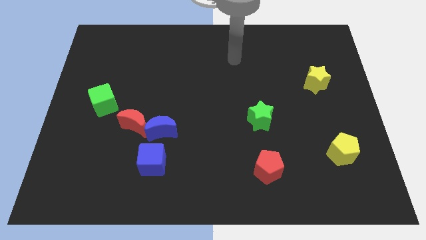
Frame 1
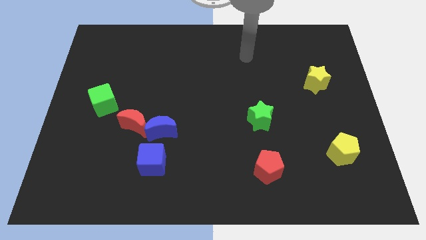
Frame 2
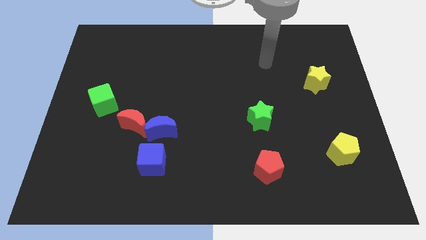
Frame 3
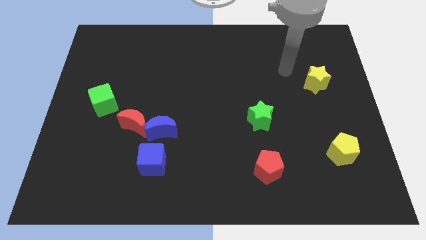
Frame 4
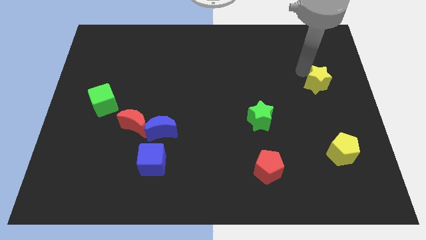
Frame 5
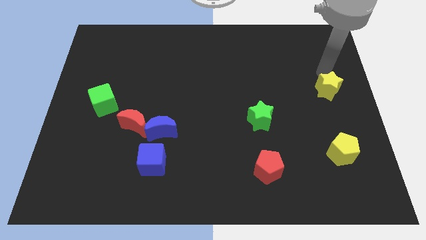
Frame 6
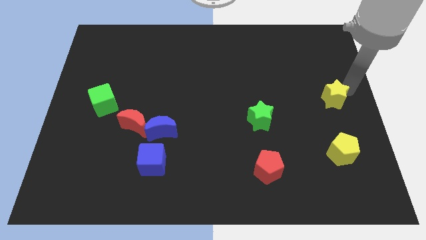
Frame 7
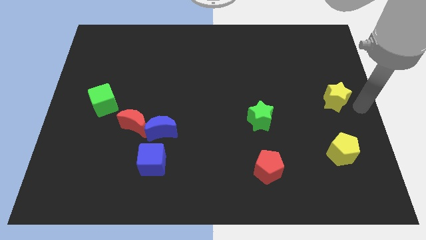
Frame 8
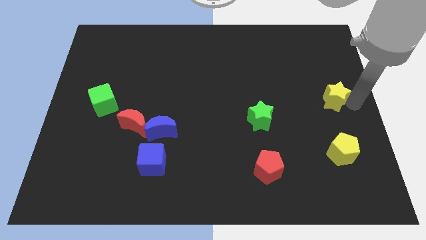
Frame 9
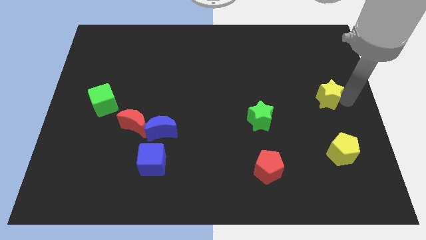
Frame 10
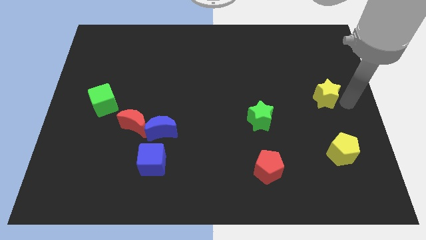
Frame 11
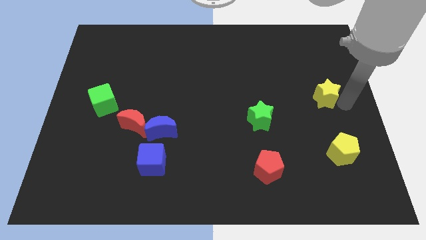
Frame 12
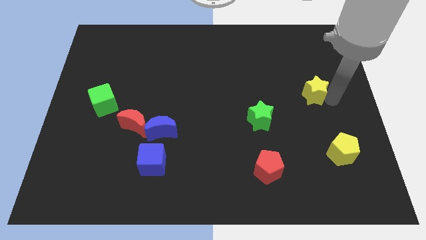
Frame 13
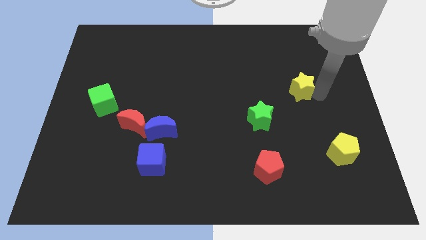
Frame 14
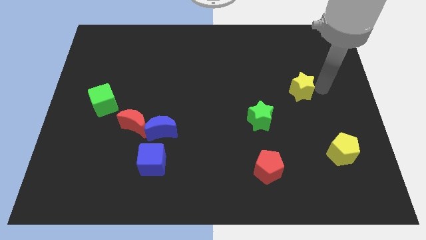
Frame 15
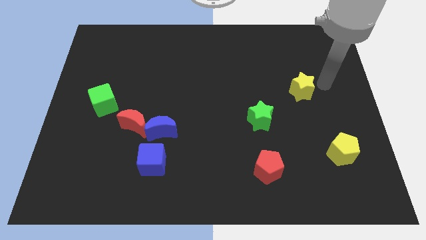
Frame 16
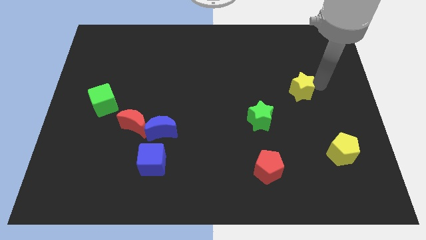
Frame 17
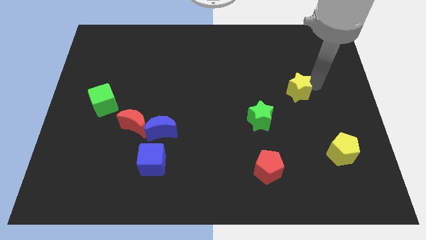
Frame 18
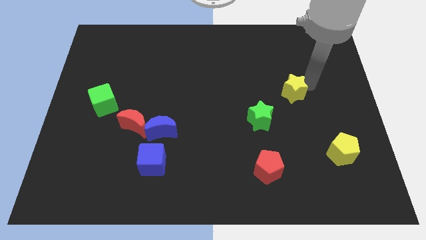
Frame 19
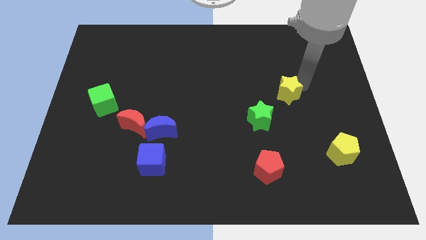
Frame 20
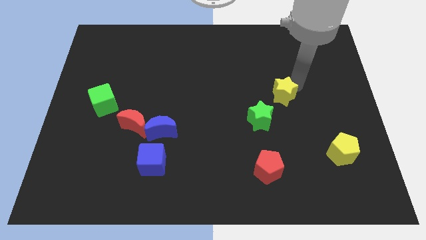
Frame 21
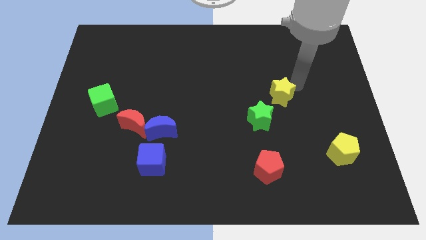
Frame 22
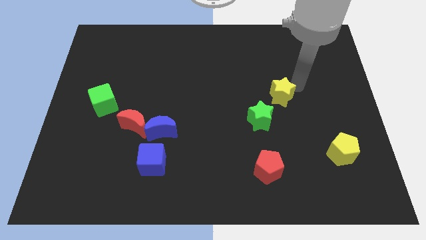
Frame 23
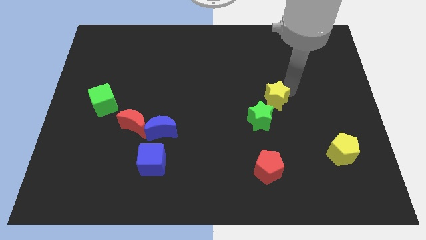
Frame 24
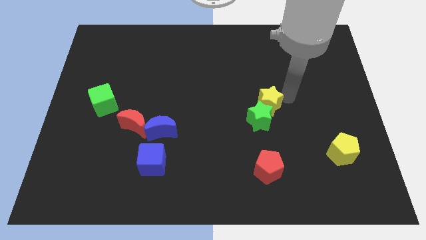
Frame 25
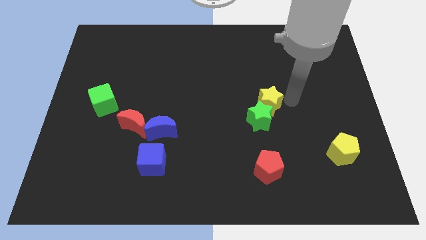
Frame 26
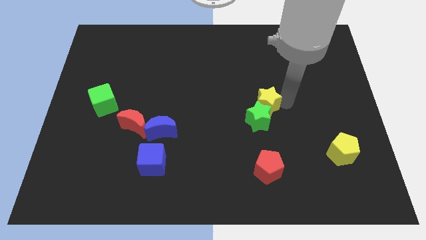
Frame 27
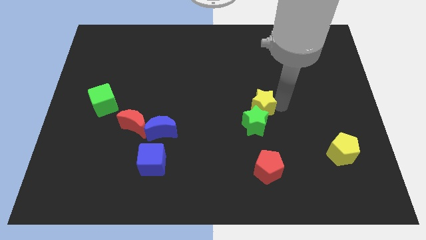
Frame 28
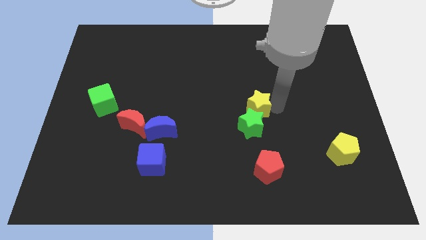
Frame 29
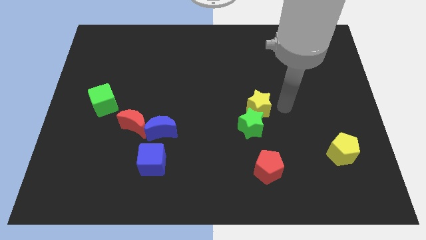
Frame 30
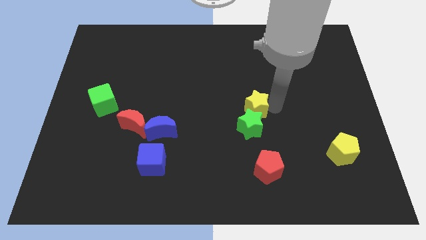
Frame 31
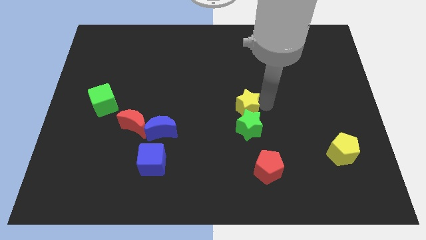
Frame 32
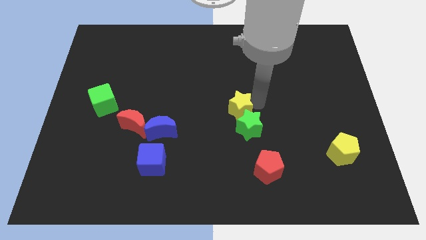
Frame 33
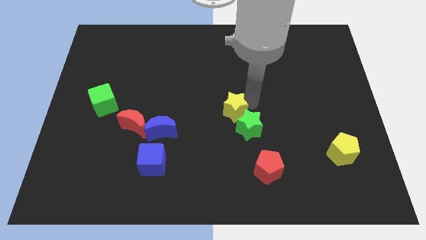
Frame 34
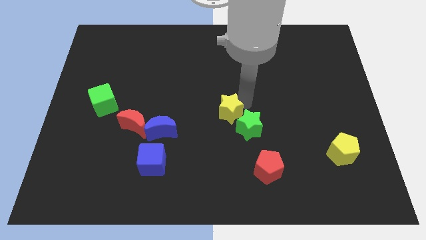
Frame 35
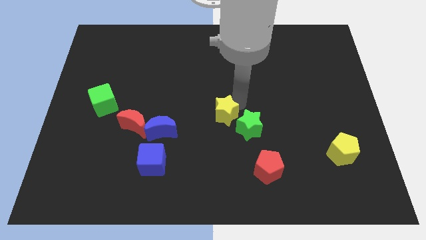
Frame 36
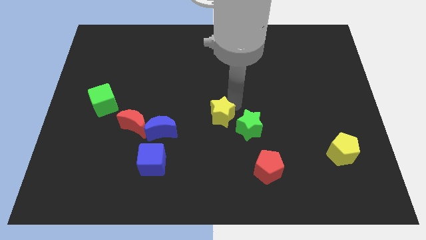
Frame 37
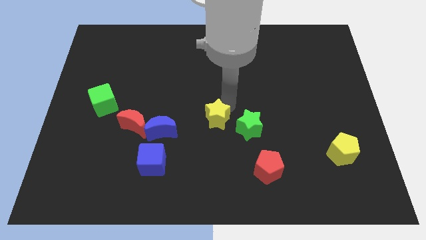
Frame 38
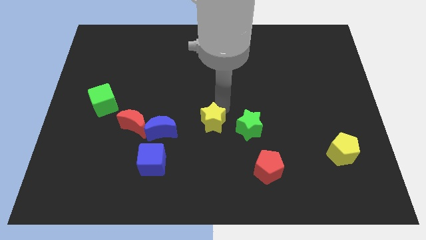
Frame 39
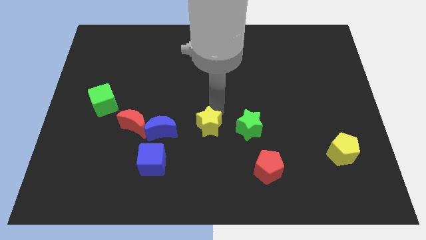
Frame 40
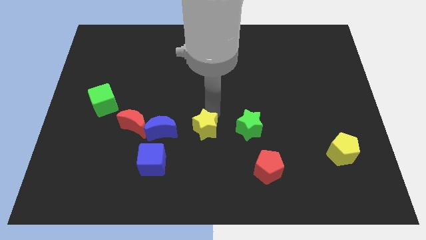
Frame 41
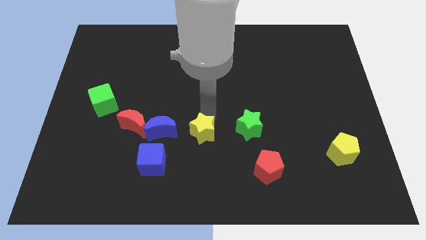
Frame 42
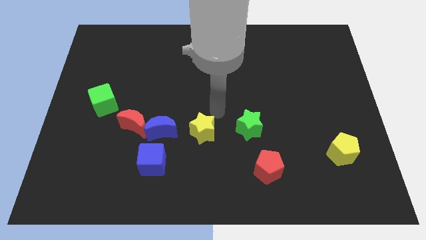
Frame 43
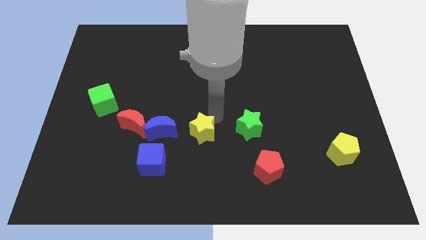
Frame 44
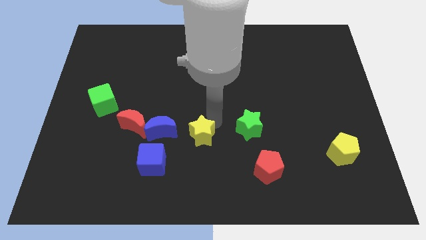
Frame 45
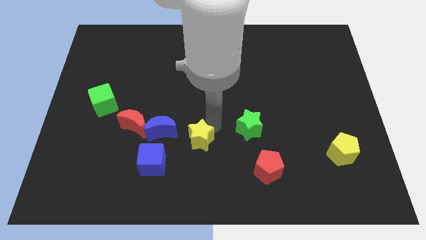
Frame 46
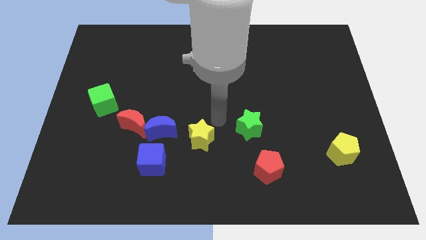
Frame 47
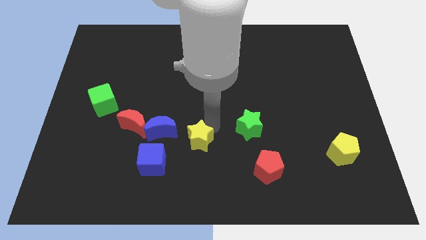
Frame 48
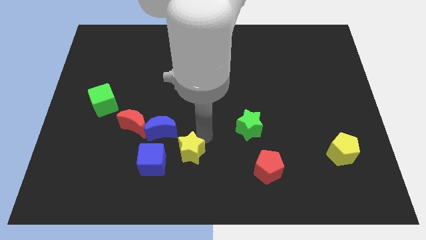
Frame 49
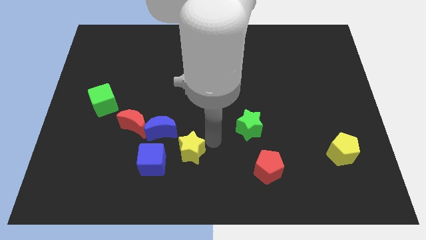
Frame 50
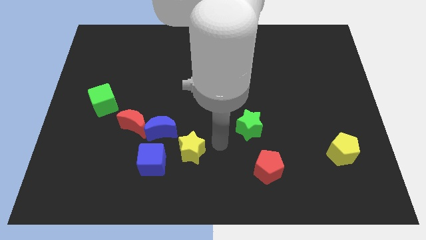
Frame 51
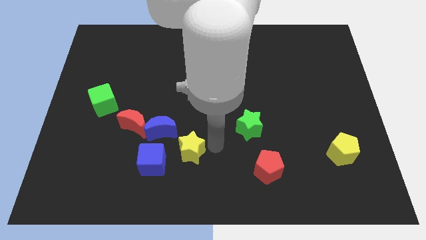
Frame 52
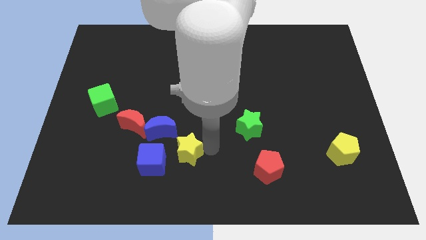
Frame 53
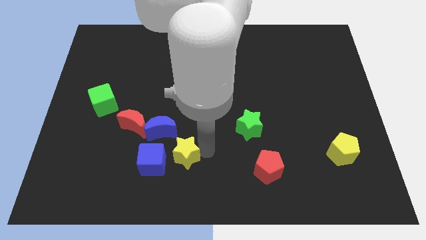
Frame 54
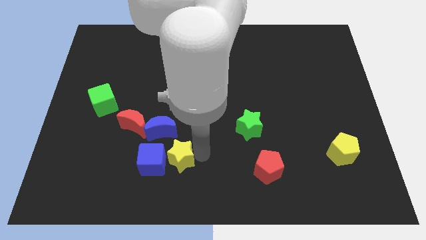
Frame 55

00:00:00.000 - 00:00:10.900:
put the yellow star next to the blue cube

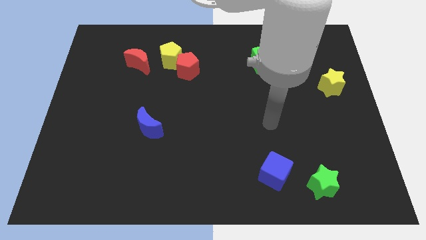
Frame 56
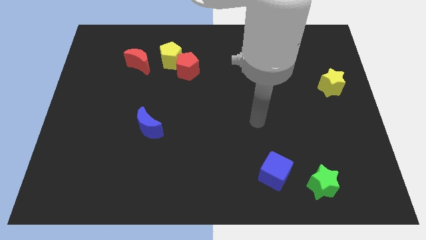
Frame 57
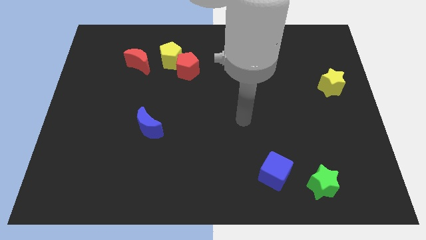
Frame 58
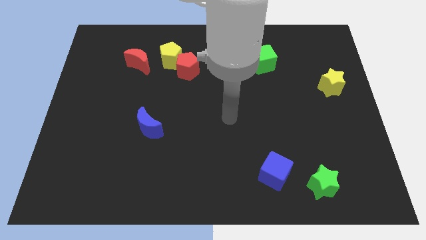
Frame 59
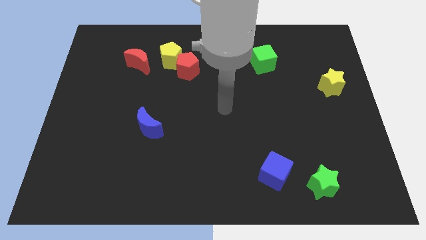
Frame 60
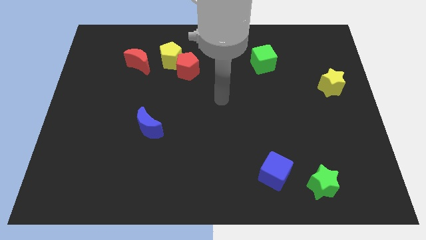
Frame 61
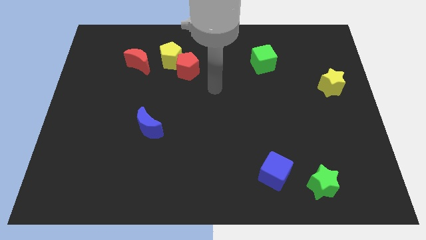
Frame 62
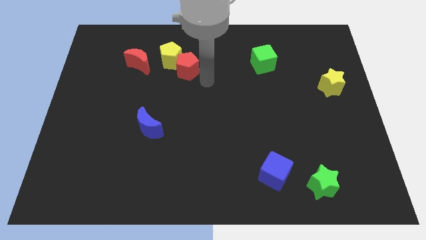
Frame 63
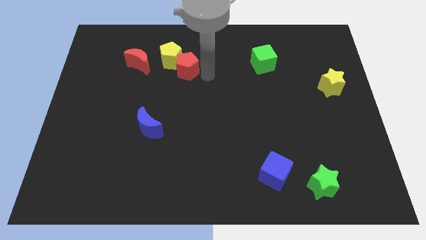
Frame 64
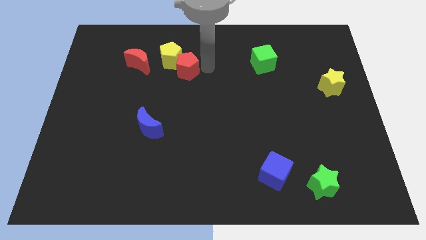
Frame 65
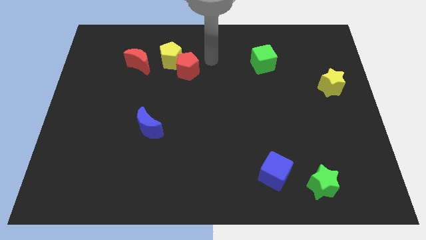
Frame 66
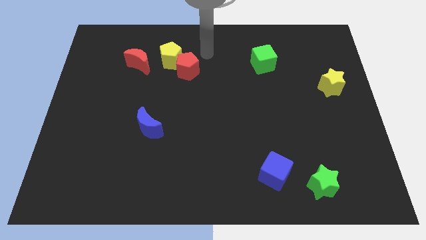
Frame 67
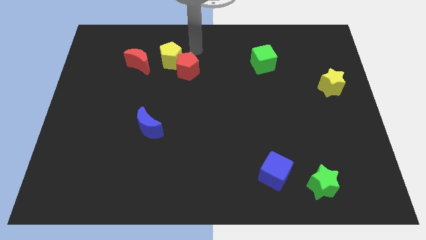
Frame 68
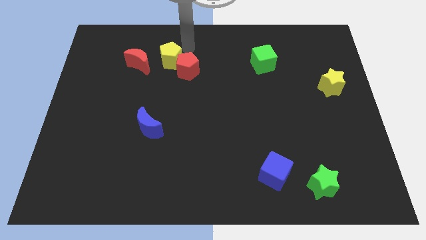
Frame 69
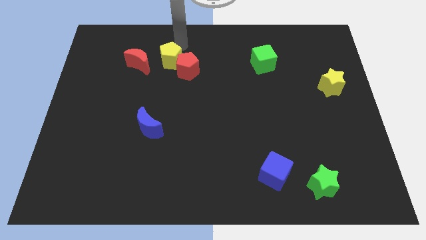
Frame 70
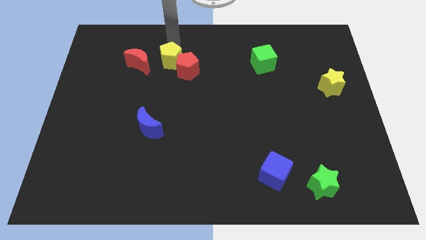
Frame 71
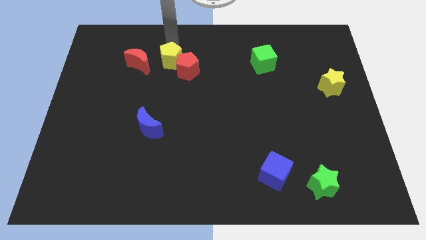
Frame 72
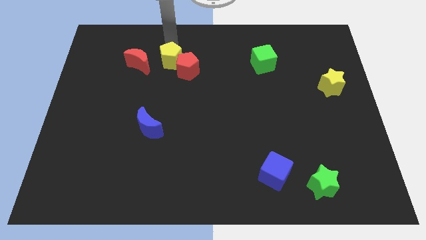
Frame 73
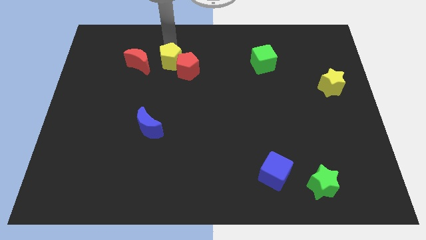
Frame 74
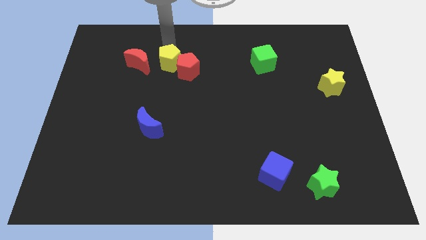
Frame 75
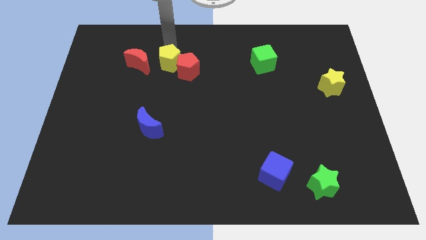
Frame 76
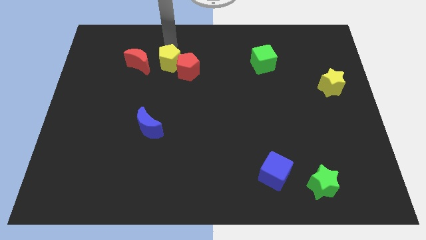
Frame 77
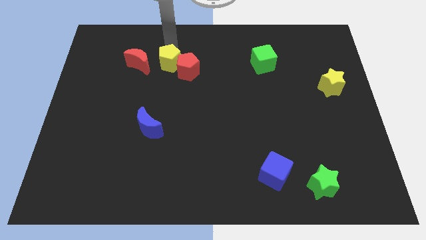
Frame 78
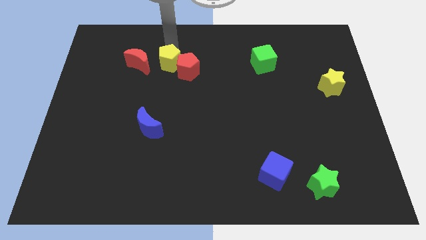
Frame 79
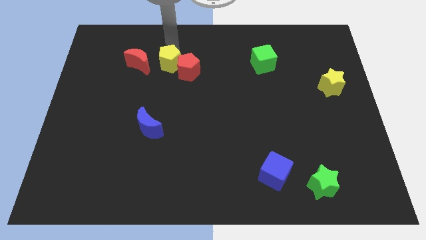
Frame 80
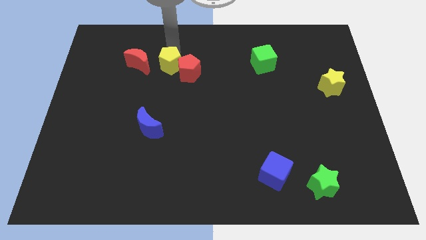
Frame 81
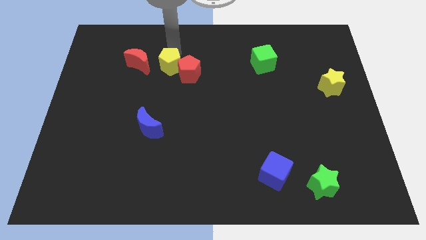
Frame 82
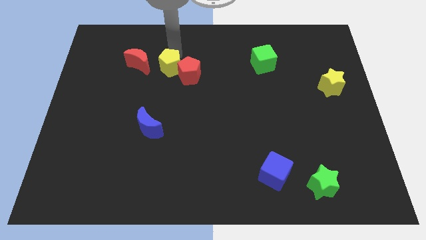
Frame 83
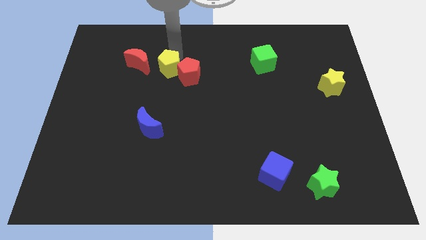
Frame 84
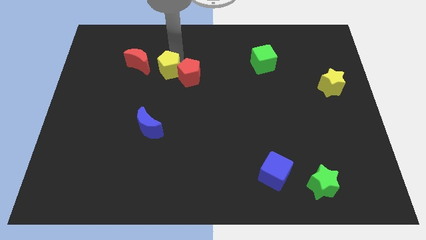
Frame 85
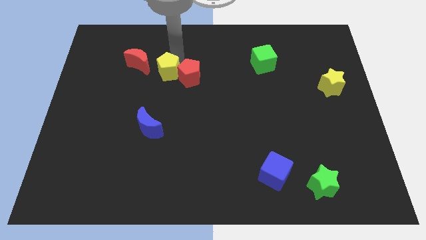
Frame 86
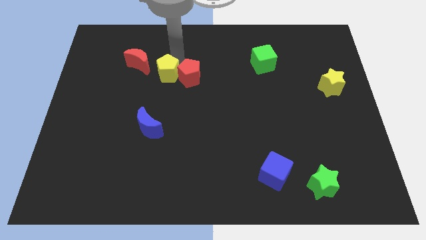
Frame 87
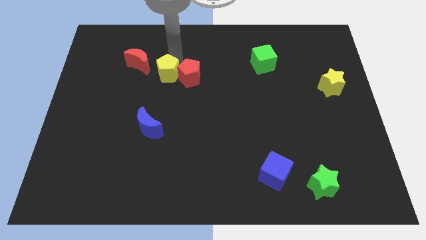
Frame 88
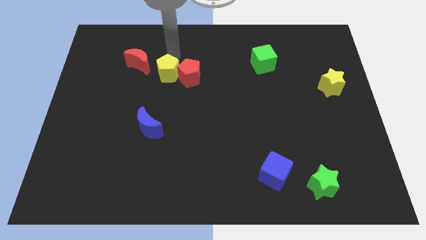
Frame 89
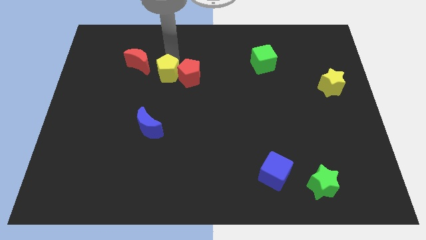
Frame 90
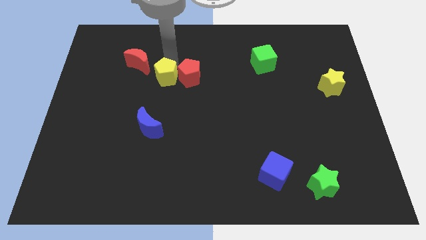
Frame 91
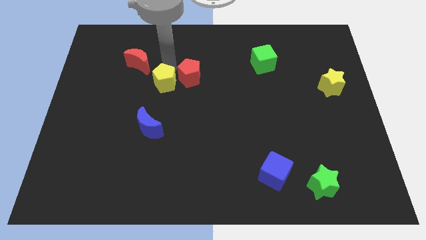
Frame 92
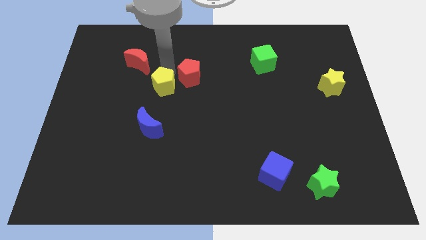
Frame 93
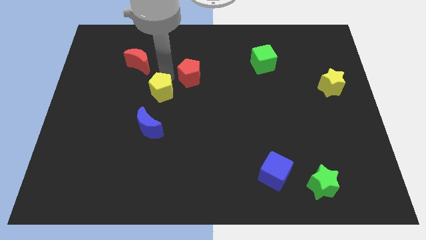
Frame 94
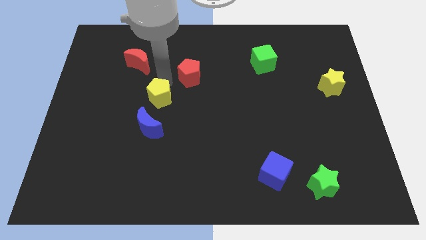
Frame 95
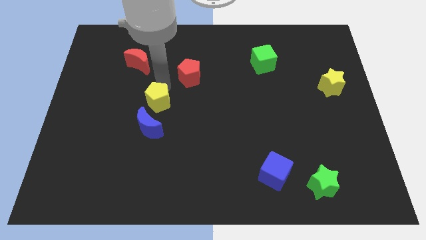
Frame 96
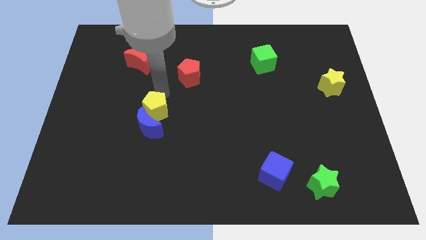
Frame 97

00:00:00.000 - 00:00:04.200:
move the yellow pentagon towards the blue moon
